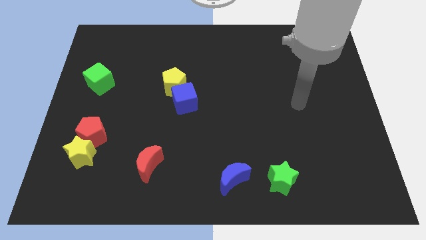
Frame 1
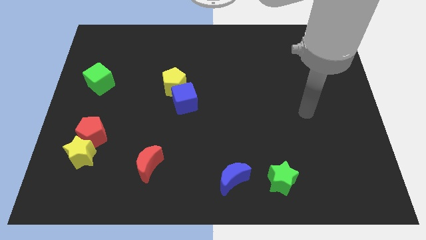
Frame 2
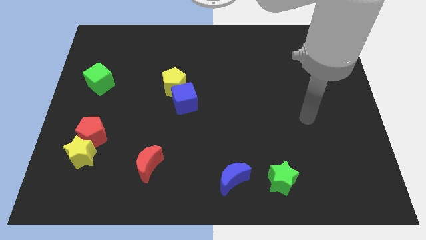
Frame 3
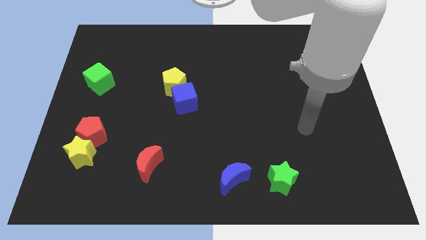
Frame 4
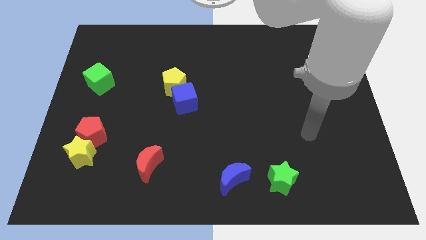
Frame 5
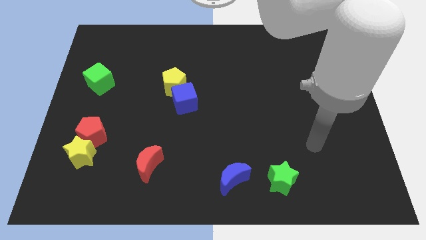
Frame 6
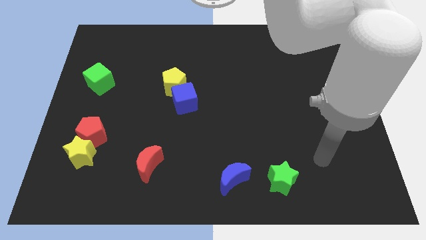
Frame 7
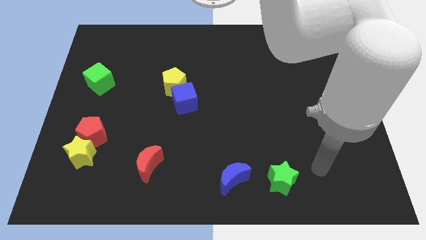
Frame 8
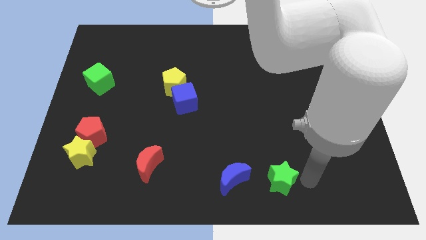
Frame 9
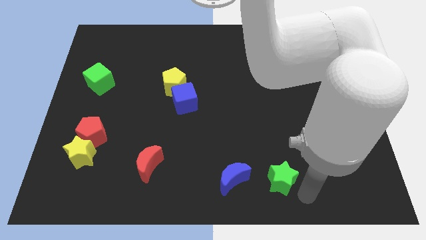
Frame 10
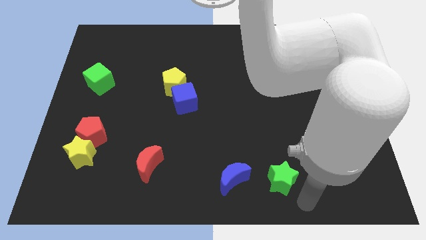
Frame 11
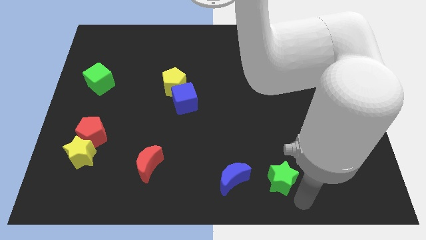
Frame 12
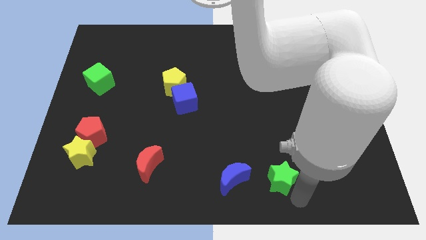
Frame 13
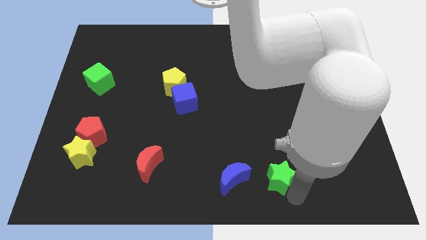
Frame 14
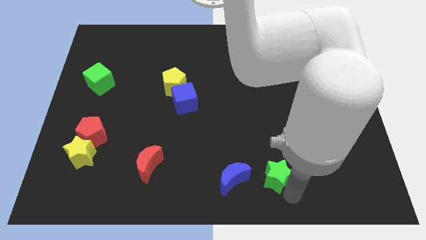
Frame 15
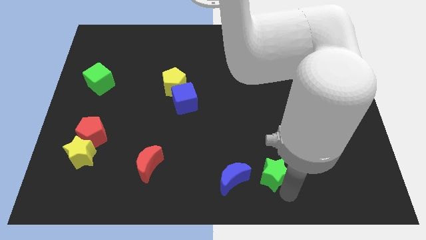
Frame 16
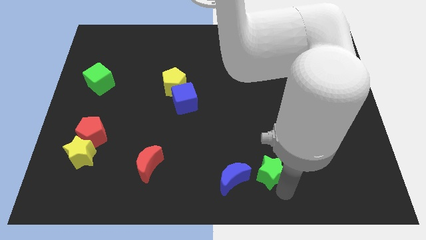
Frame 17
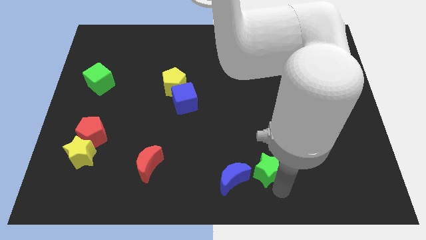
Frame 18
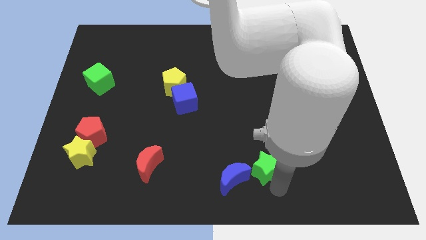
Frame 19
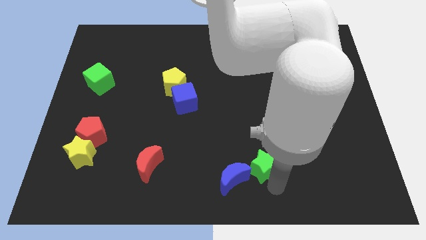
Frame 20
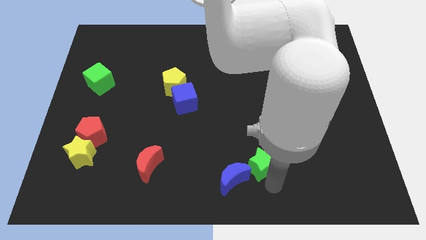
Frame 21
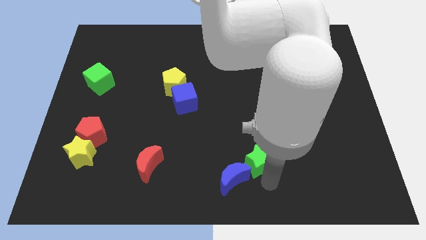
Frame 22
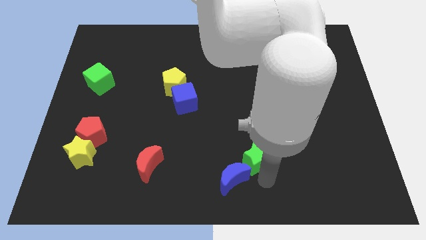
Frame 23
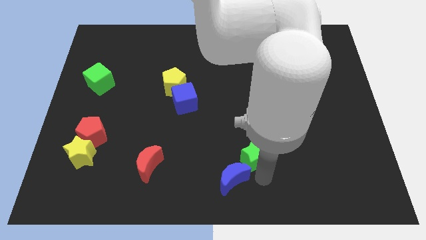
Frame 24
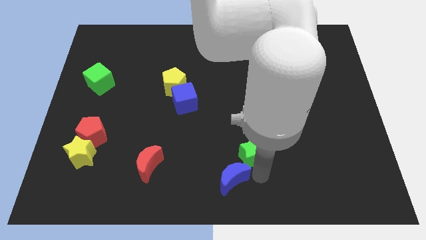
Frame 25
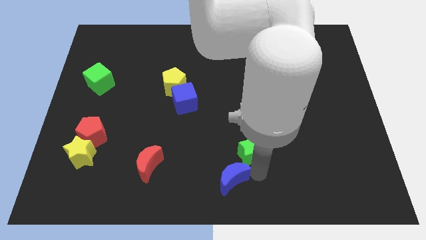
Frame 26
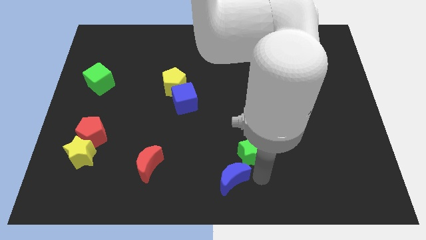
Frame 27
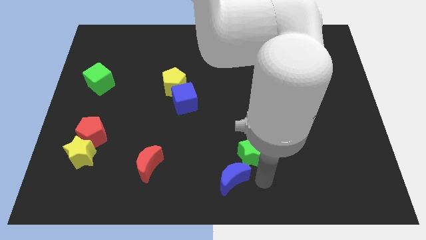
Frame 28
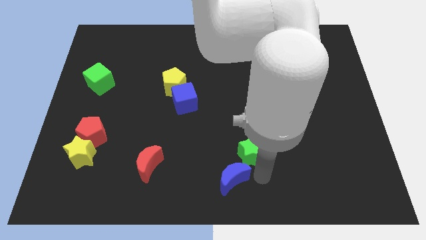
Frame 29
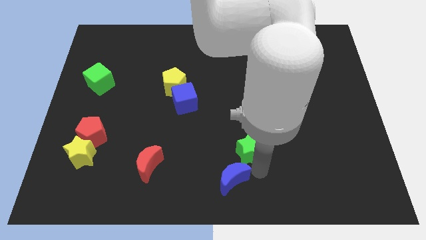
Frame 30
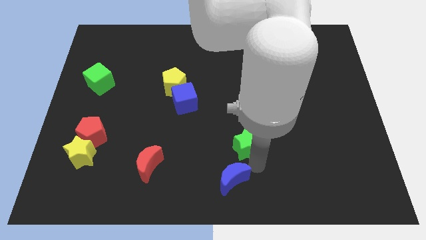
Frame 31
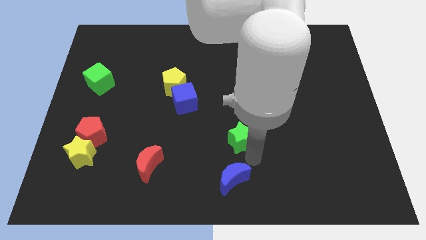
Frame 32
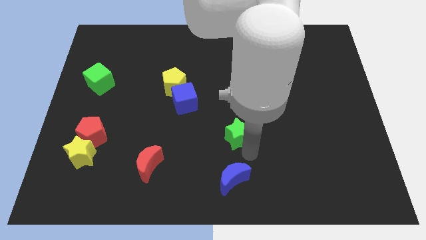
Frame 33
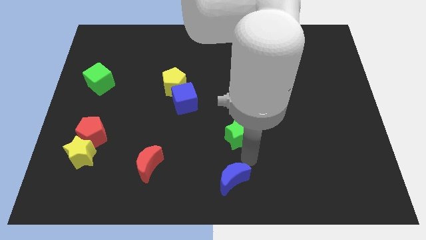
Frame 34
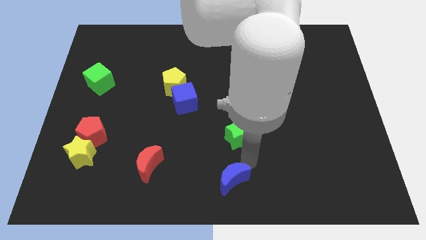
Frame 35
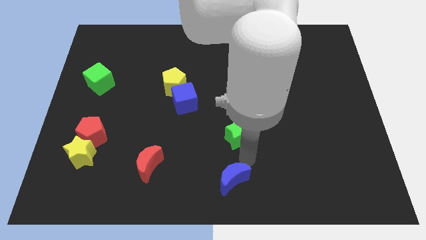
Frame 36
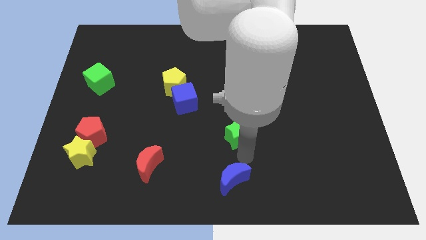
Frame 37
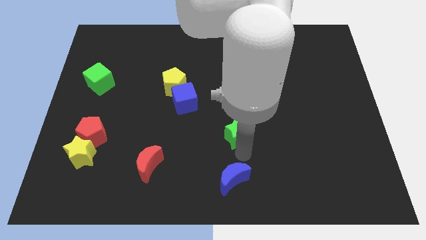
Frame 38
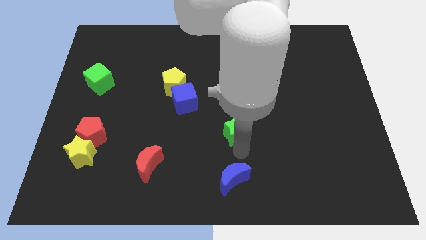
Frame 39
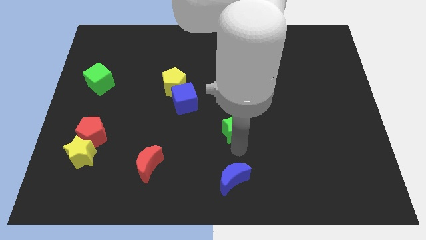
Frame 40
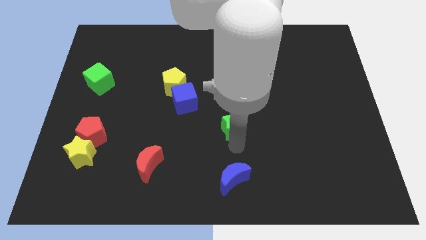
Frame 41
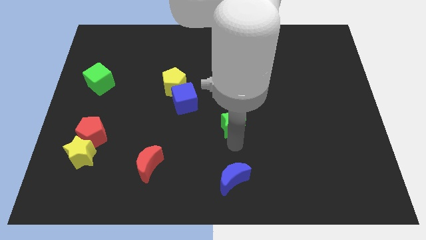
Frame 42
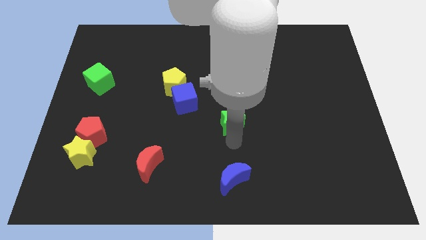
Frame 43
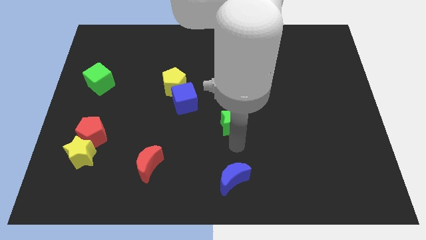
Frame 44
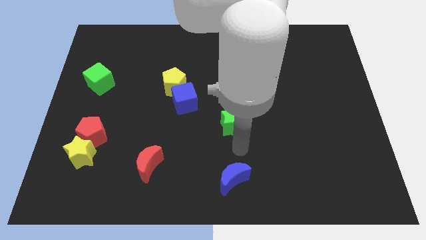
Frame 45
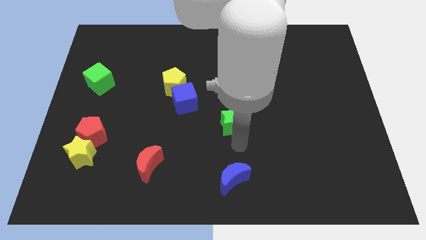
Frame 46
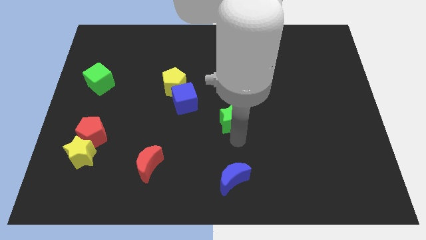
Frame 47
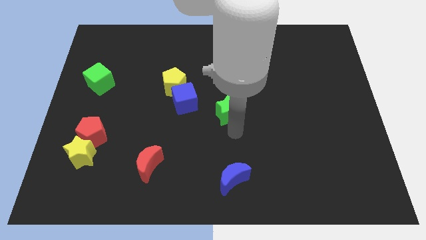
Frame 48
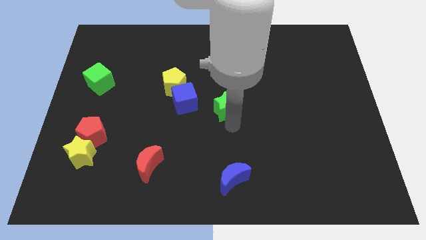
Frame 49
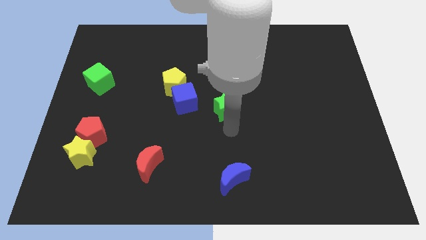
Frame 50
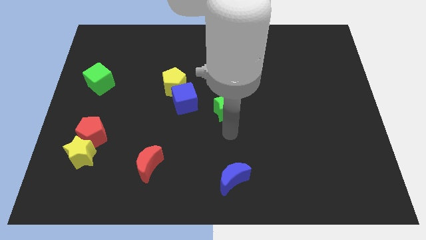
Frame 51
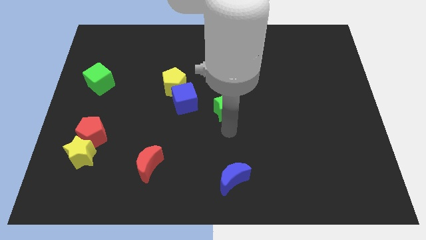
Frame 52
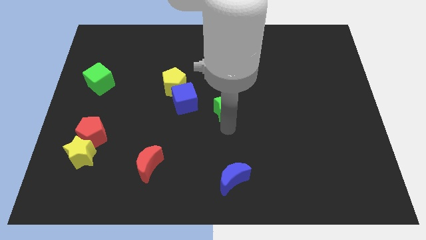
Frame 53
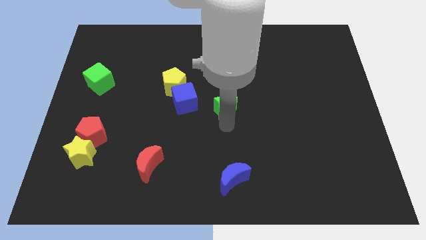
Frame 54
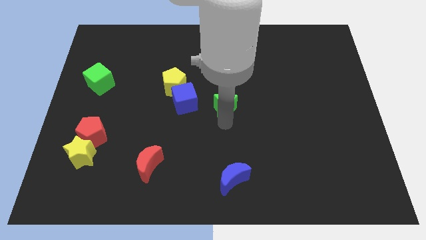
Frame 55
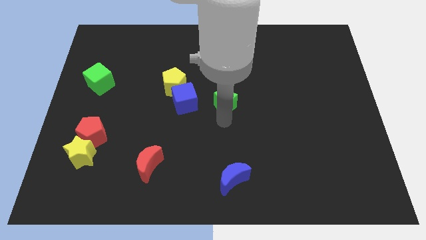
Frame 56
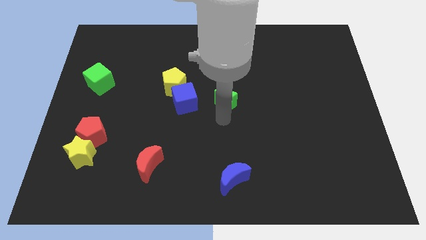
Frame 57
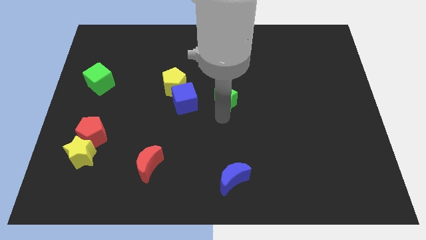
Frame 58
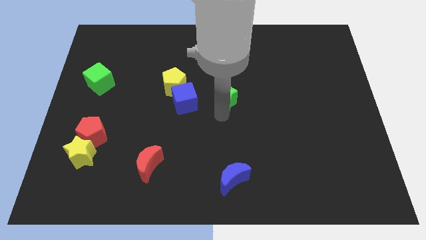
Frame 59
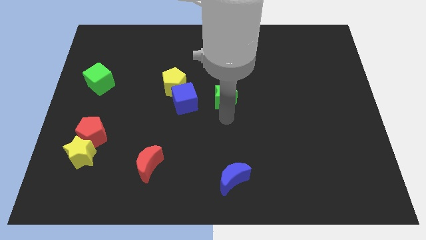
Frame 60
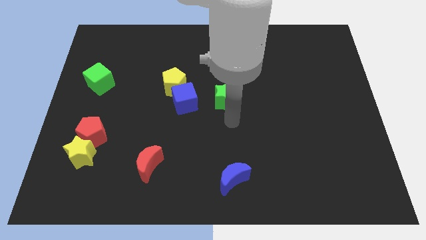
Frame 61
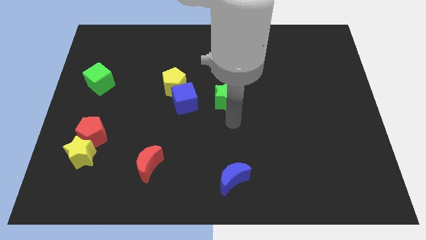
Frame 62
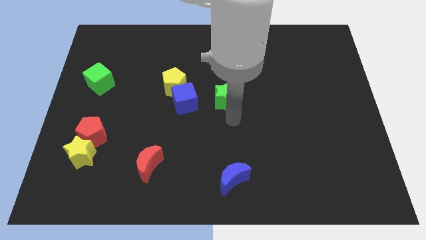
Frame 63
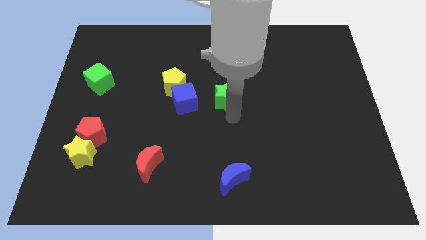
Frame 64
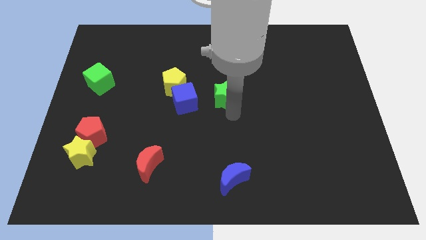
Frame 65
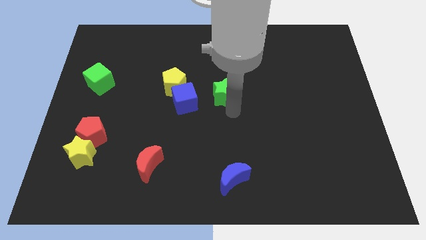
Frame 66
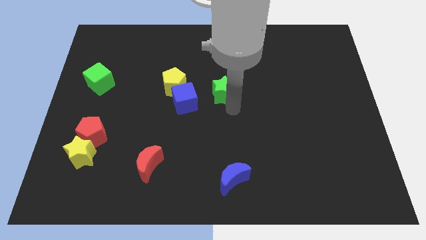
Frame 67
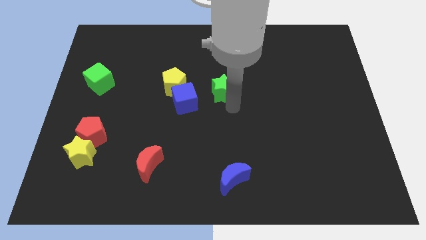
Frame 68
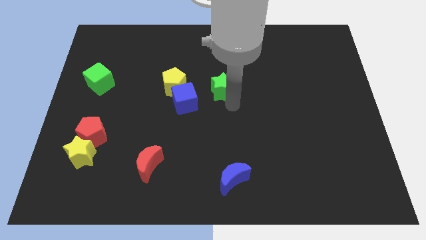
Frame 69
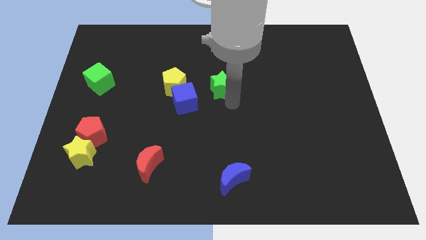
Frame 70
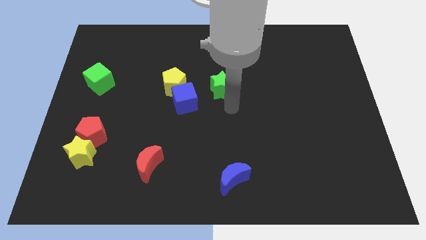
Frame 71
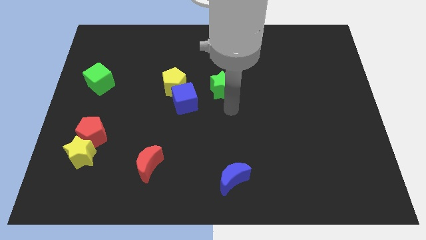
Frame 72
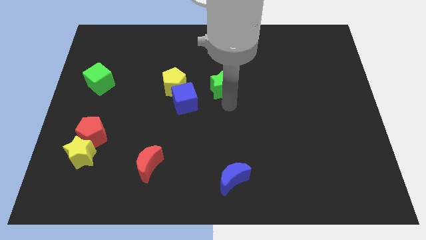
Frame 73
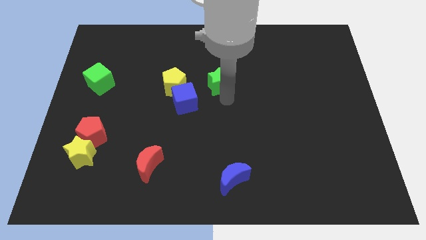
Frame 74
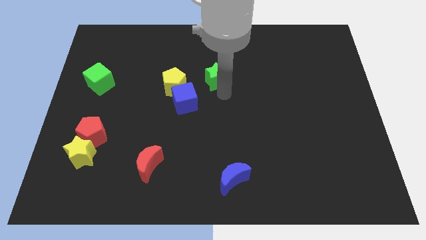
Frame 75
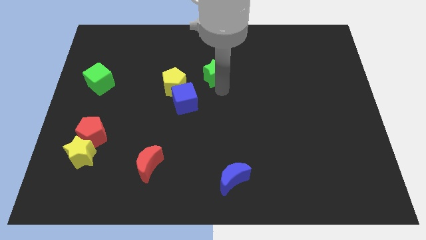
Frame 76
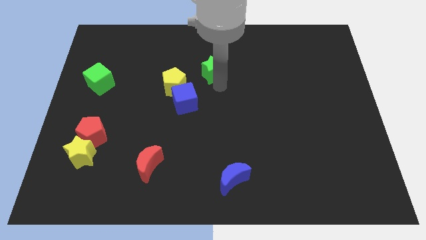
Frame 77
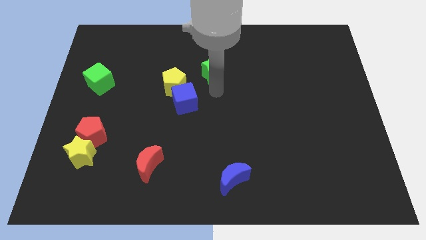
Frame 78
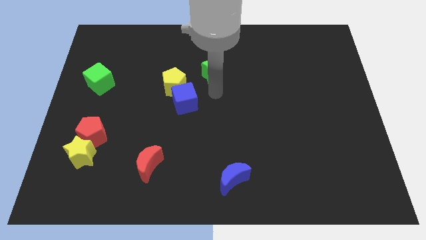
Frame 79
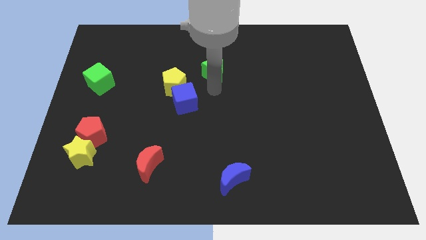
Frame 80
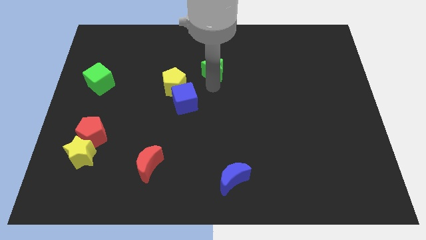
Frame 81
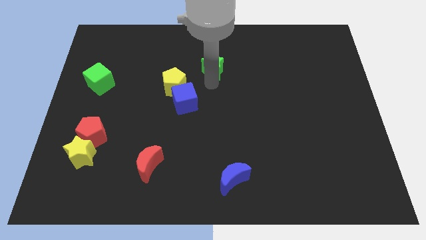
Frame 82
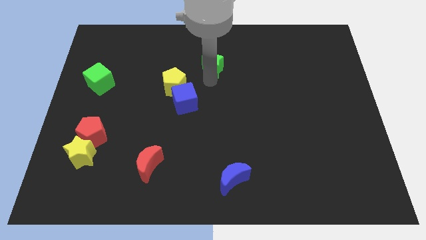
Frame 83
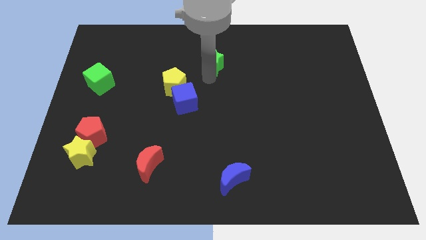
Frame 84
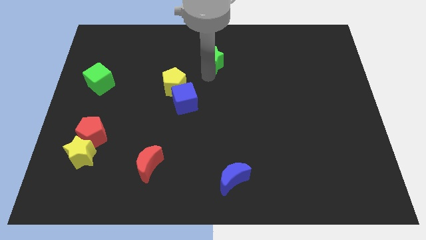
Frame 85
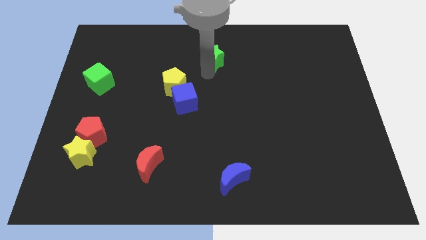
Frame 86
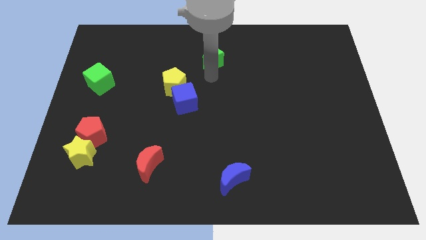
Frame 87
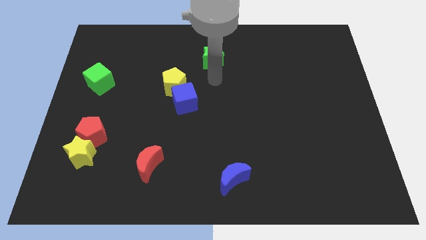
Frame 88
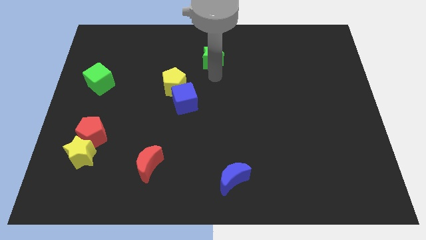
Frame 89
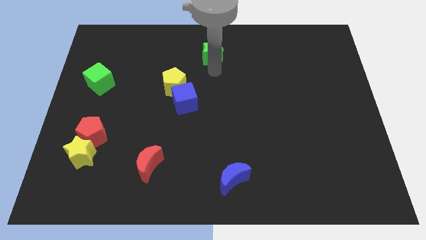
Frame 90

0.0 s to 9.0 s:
put the green star to the towards your base
